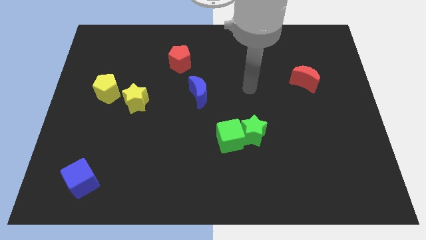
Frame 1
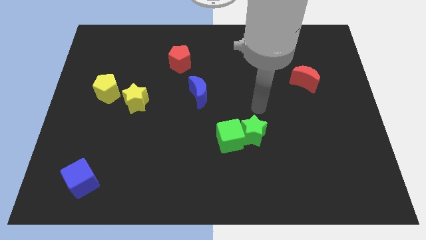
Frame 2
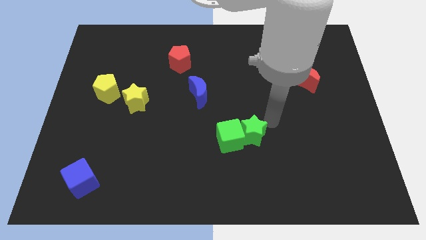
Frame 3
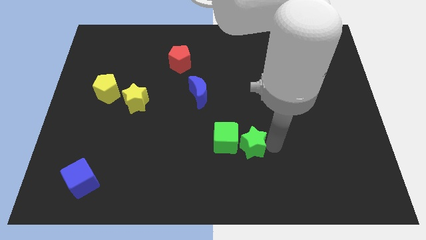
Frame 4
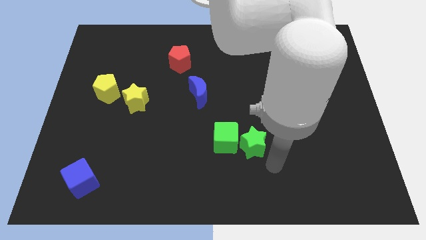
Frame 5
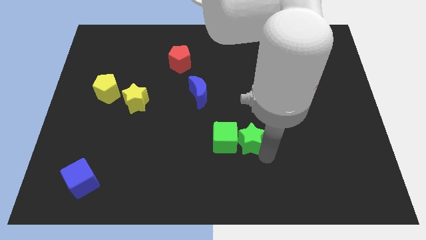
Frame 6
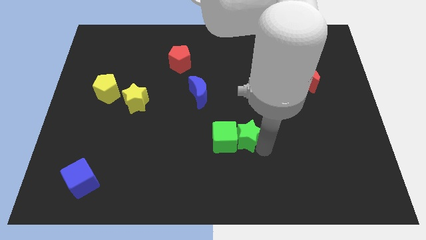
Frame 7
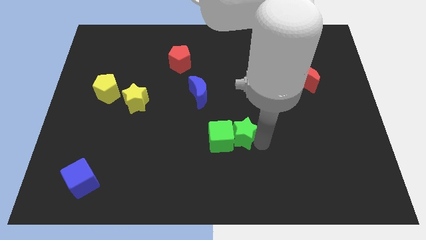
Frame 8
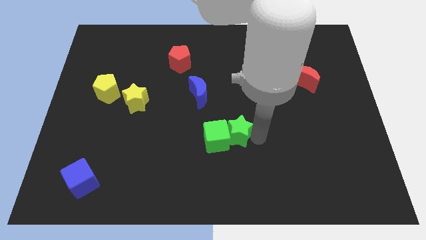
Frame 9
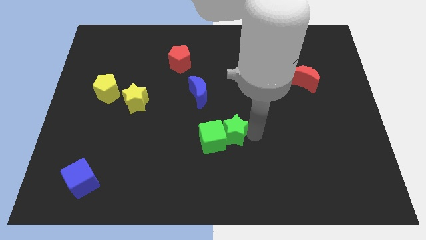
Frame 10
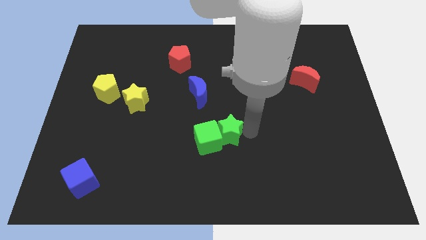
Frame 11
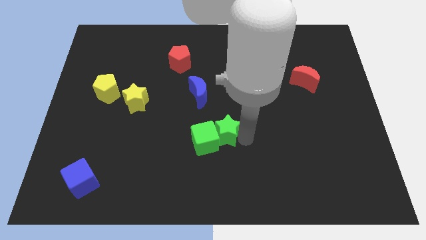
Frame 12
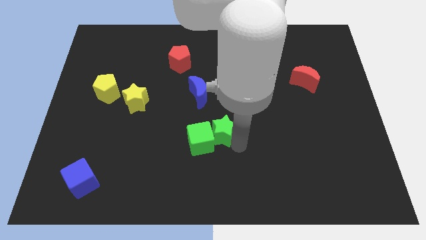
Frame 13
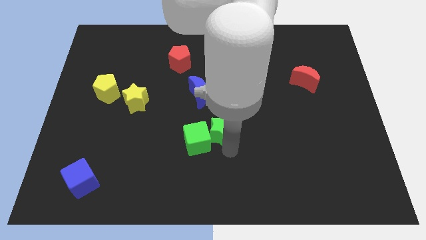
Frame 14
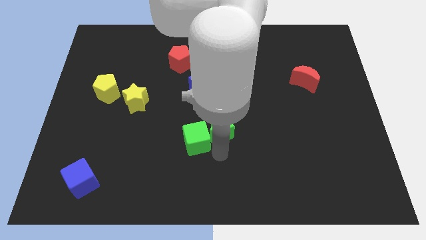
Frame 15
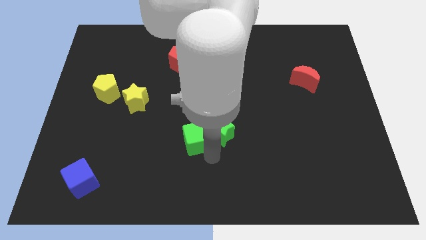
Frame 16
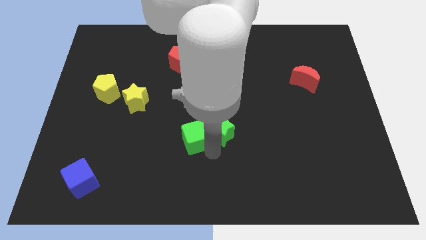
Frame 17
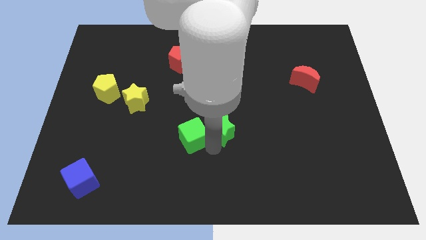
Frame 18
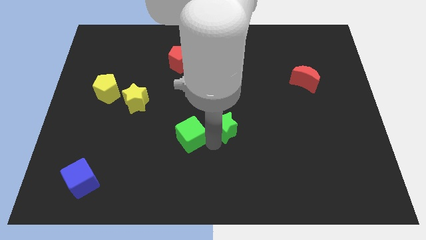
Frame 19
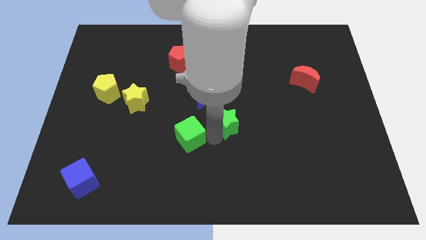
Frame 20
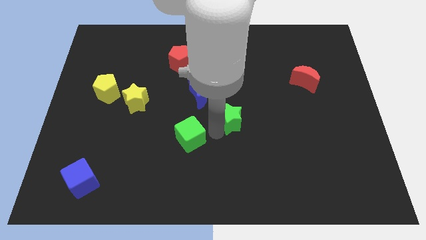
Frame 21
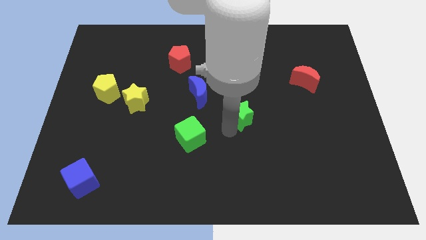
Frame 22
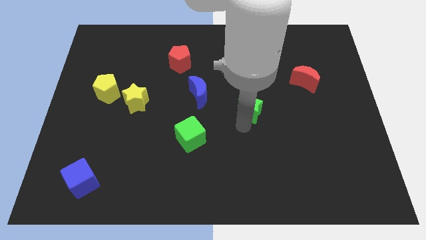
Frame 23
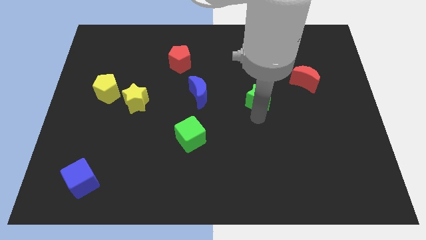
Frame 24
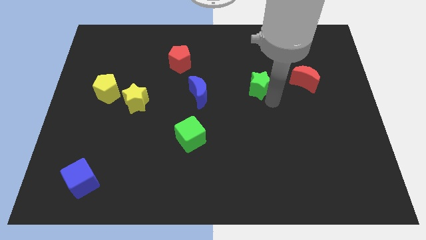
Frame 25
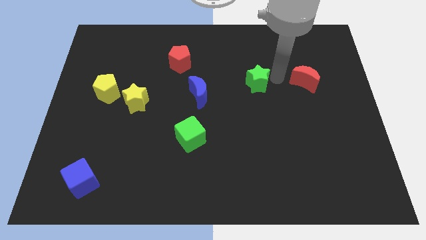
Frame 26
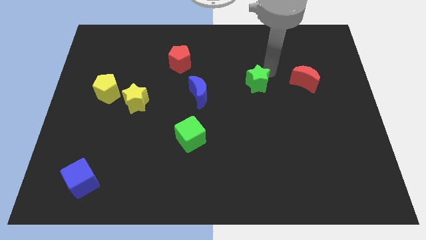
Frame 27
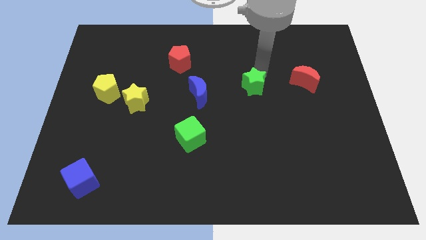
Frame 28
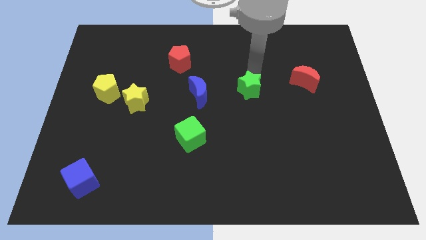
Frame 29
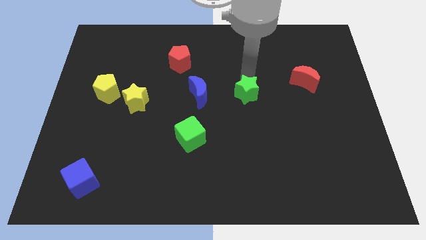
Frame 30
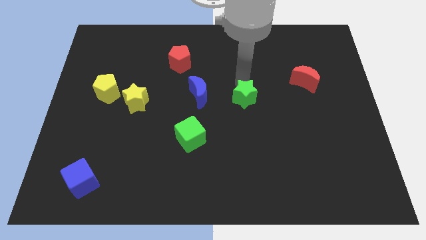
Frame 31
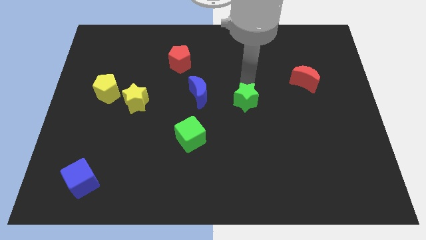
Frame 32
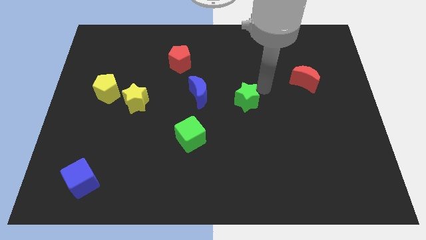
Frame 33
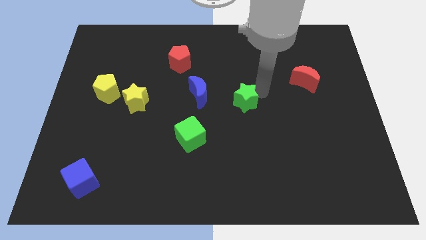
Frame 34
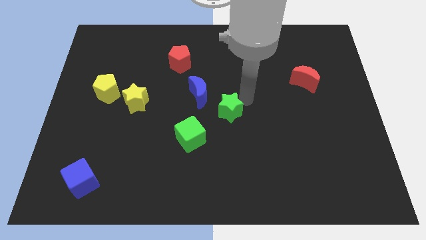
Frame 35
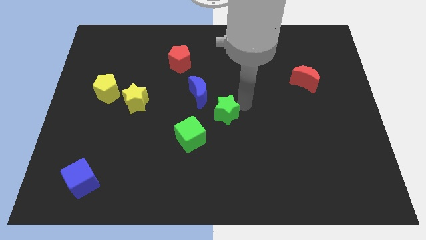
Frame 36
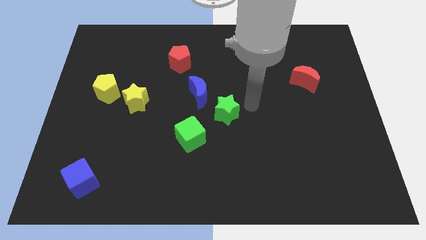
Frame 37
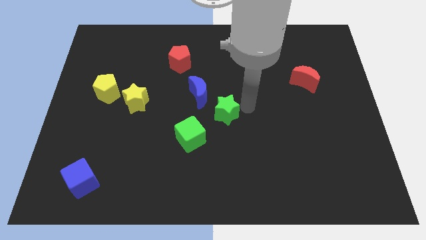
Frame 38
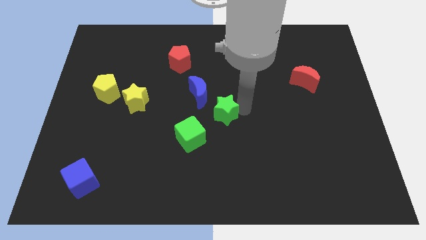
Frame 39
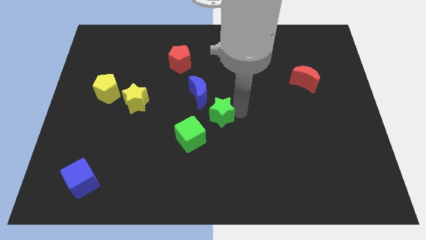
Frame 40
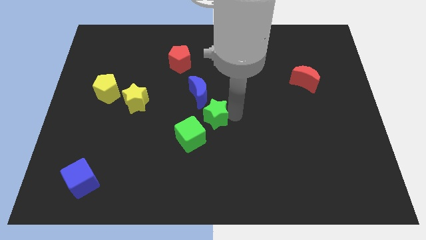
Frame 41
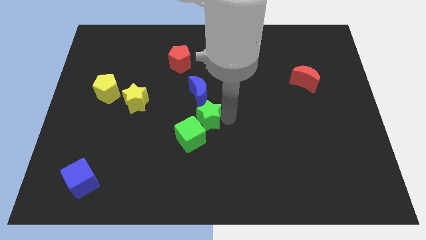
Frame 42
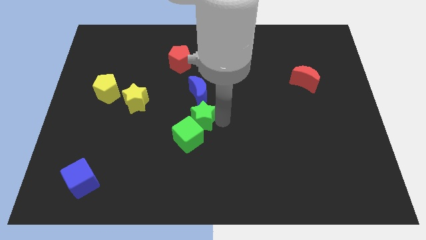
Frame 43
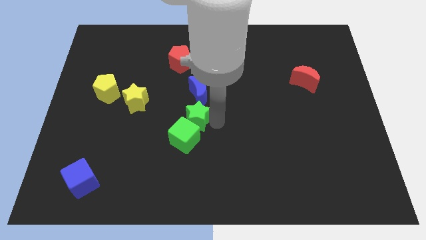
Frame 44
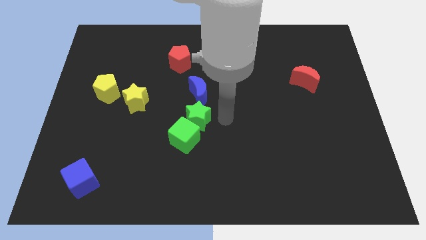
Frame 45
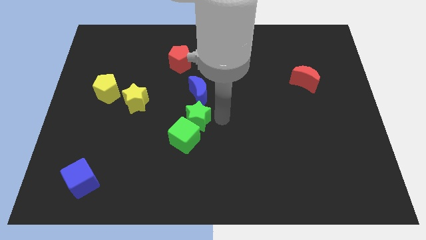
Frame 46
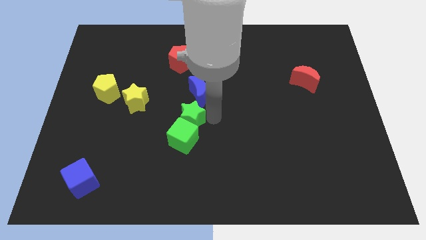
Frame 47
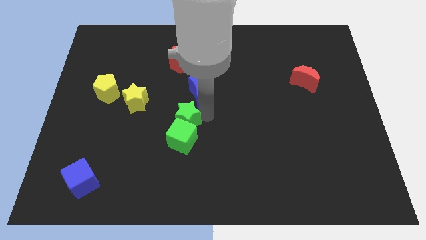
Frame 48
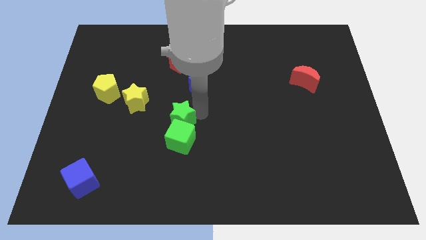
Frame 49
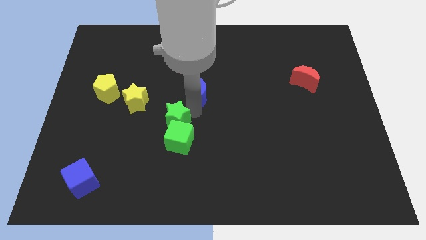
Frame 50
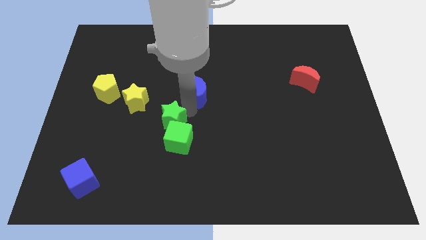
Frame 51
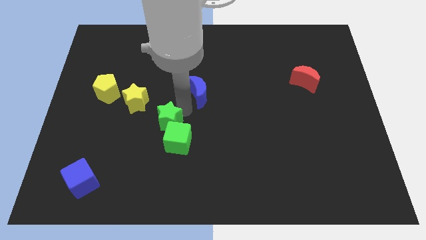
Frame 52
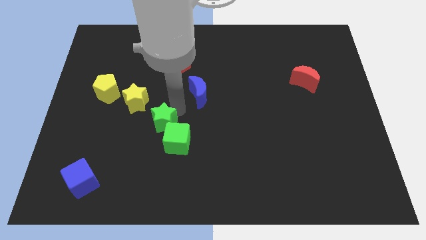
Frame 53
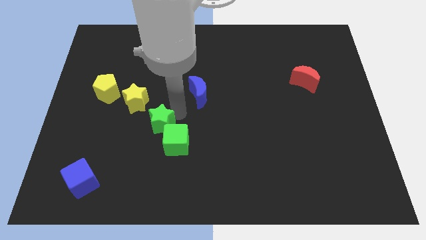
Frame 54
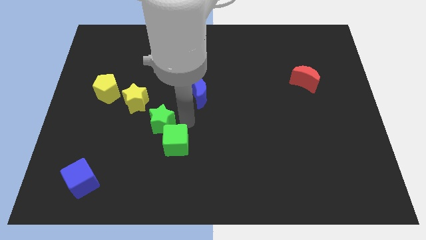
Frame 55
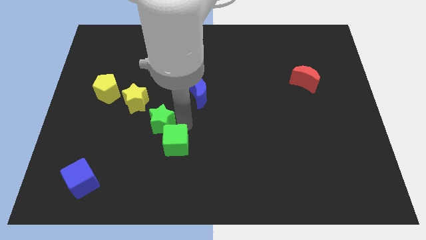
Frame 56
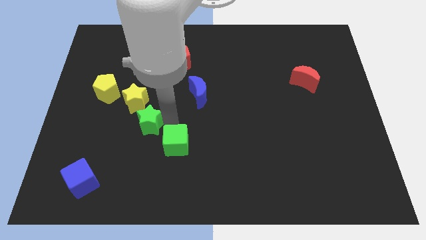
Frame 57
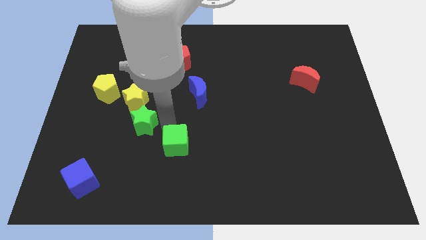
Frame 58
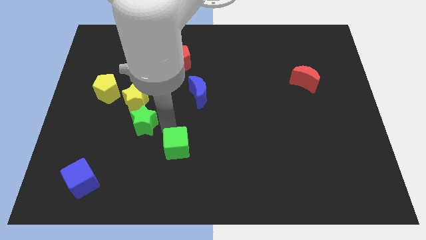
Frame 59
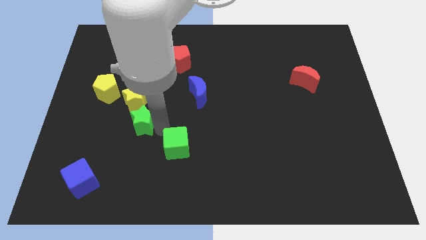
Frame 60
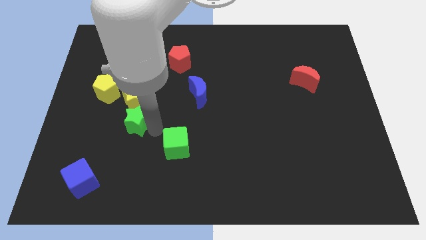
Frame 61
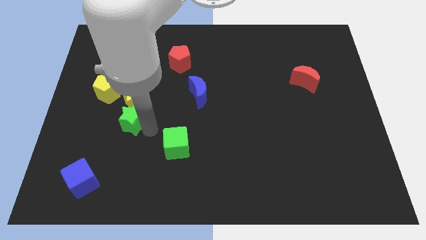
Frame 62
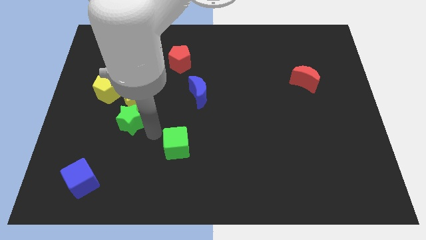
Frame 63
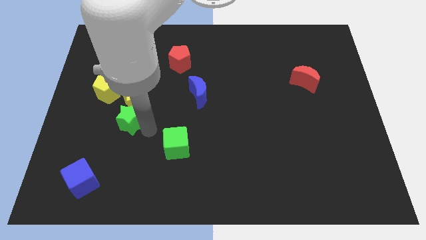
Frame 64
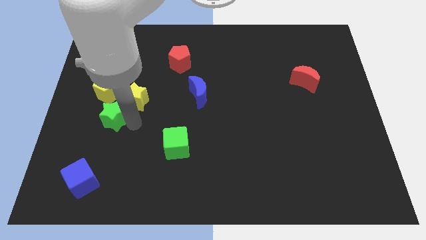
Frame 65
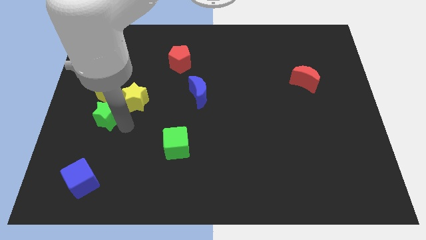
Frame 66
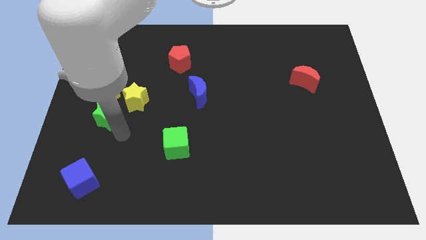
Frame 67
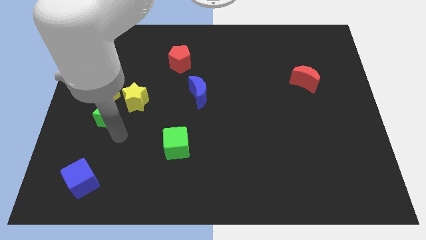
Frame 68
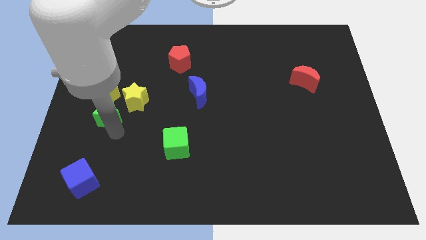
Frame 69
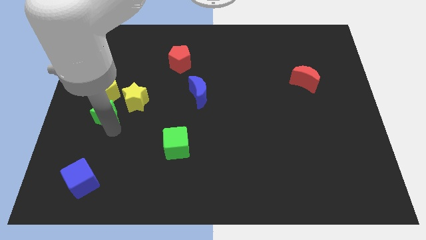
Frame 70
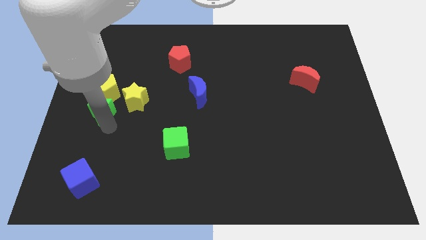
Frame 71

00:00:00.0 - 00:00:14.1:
put the green star to the center left

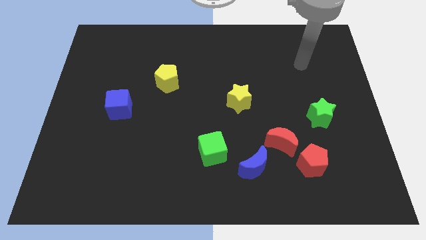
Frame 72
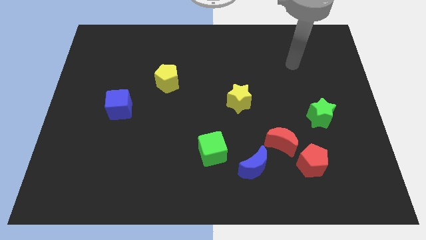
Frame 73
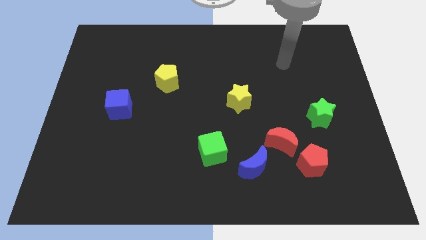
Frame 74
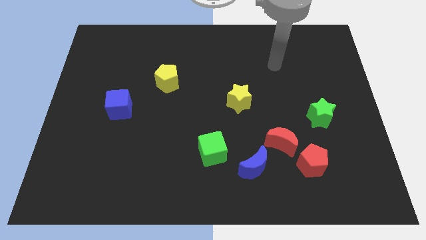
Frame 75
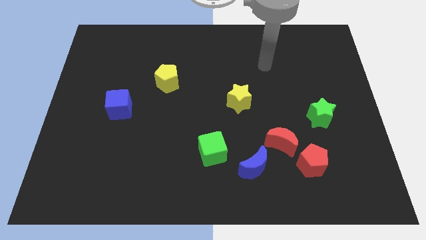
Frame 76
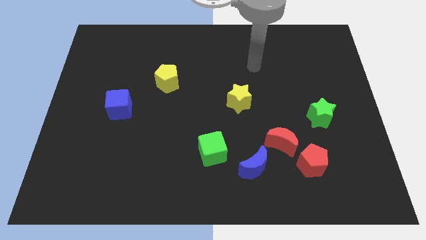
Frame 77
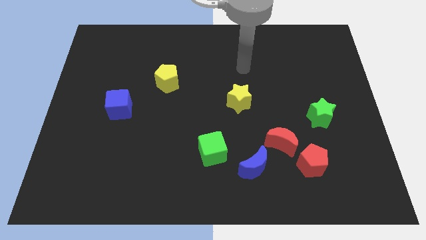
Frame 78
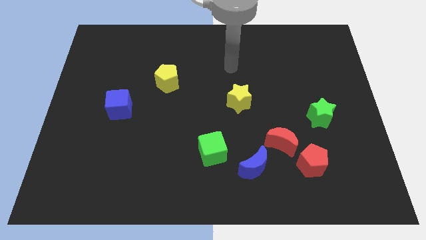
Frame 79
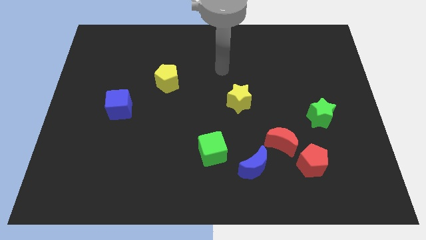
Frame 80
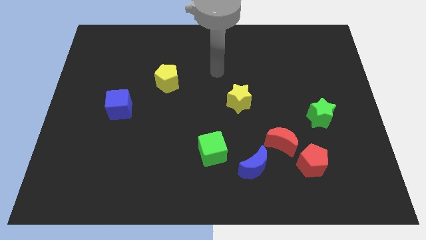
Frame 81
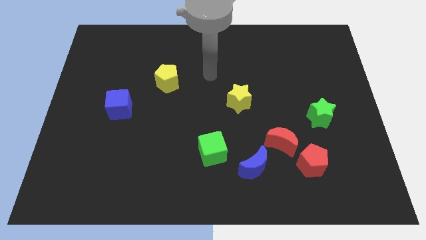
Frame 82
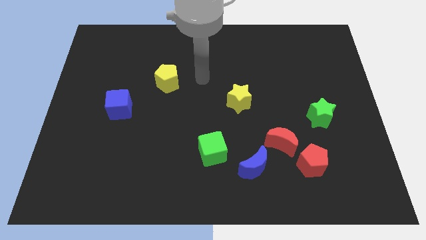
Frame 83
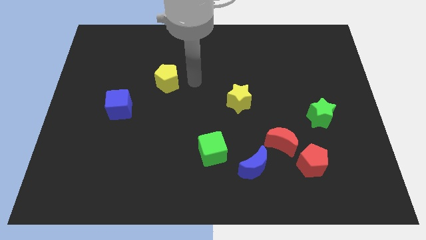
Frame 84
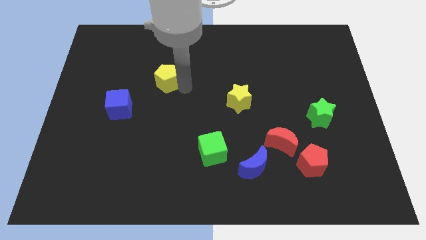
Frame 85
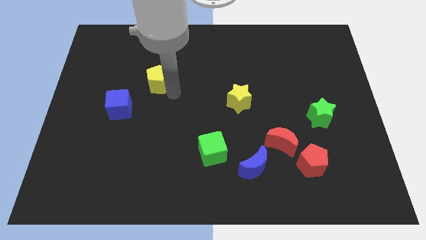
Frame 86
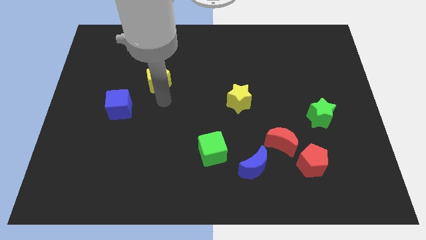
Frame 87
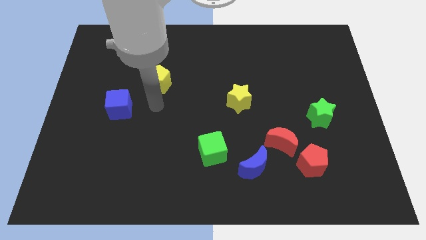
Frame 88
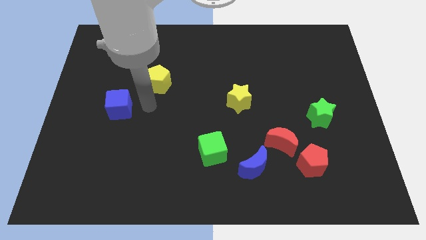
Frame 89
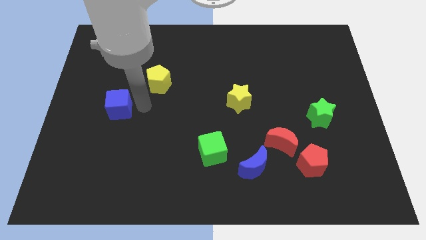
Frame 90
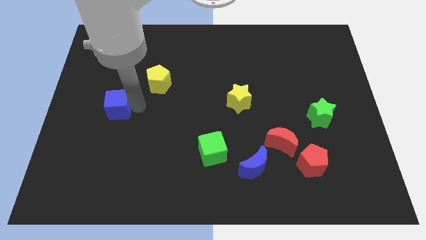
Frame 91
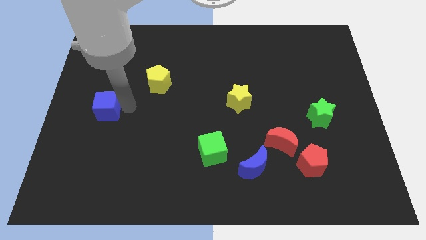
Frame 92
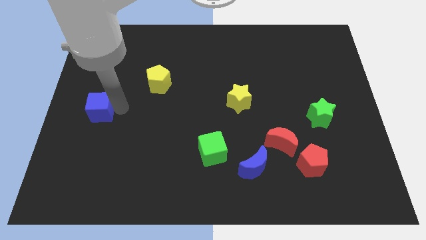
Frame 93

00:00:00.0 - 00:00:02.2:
push the blue cube to the center left
